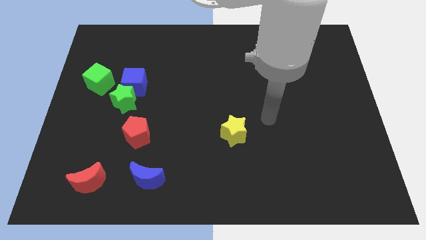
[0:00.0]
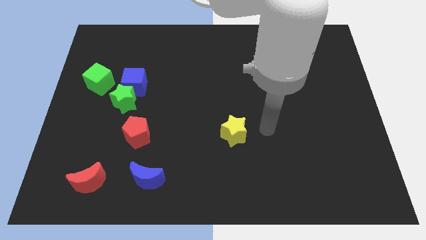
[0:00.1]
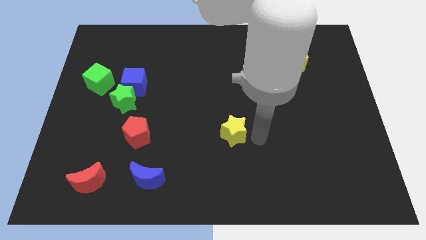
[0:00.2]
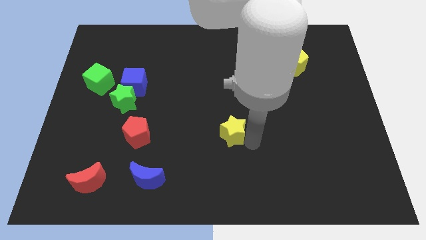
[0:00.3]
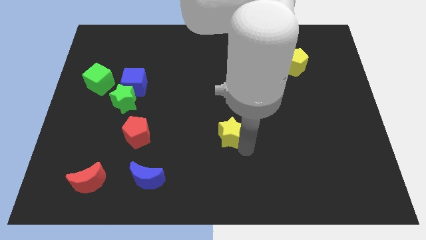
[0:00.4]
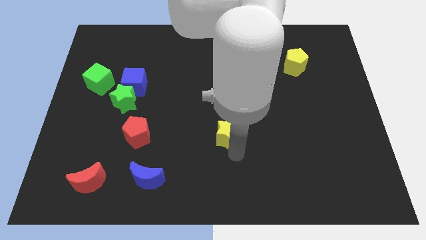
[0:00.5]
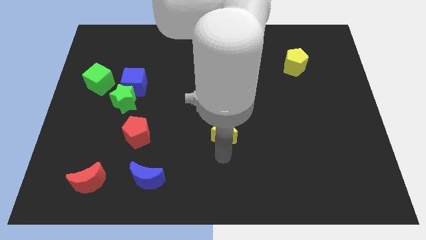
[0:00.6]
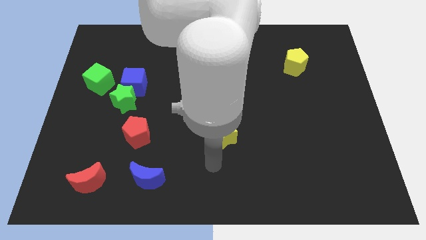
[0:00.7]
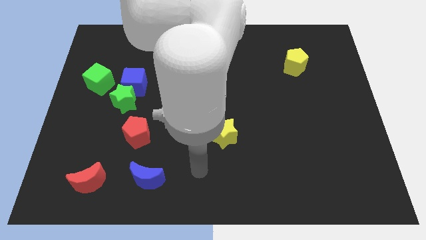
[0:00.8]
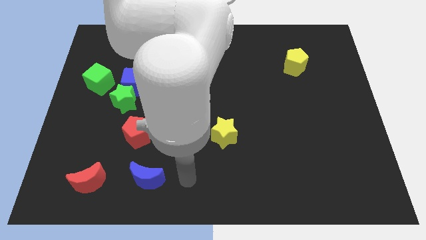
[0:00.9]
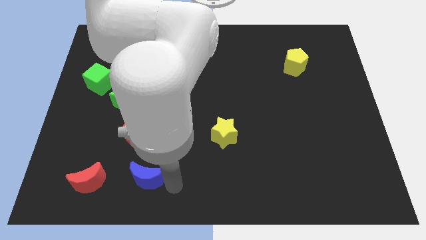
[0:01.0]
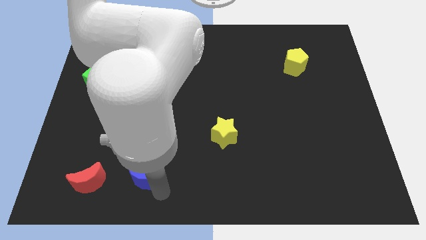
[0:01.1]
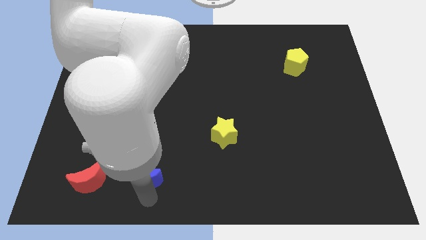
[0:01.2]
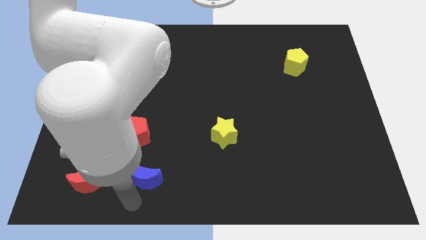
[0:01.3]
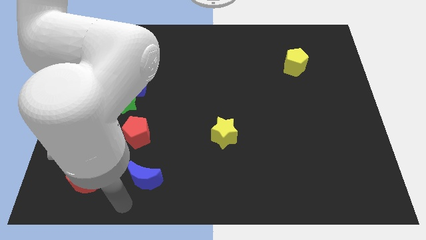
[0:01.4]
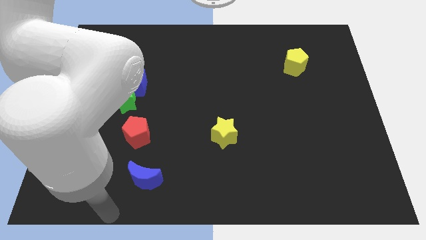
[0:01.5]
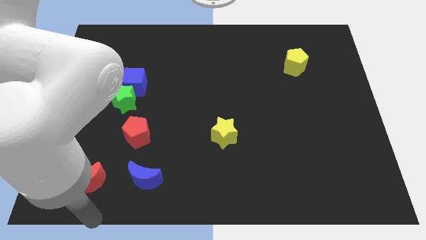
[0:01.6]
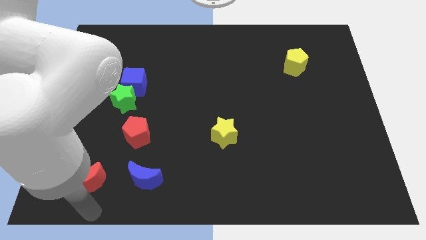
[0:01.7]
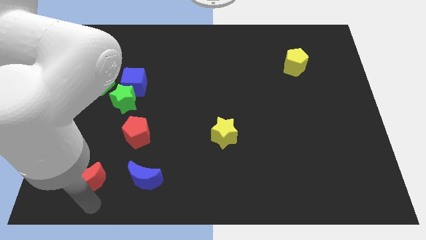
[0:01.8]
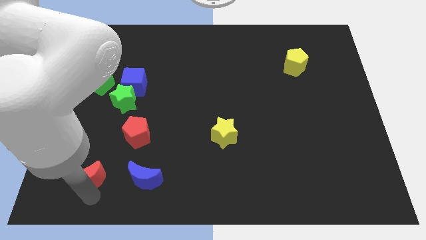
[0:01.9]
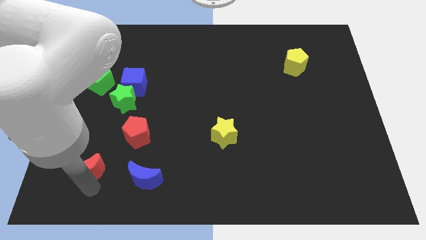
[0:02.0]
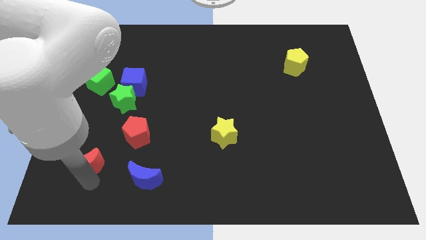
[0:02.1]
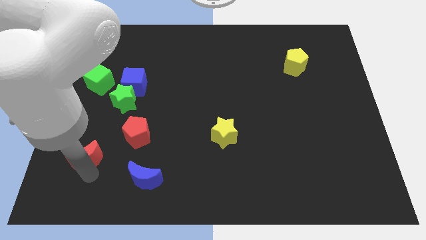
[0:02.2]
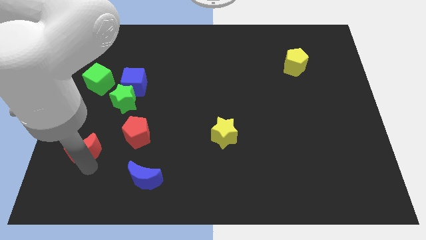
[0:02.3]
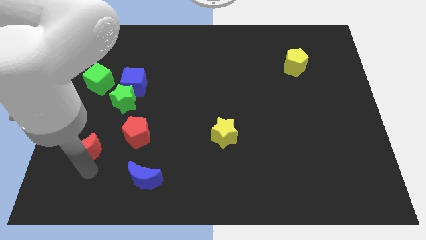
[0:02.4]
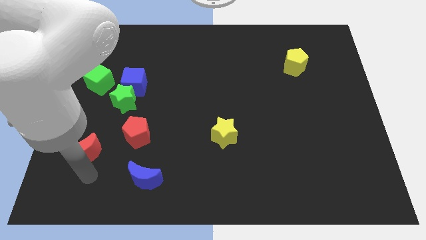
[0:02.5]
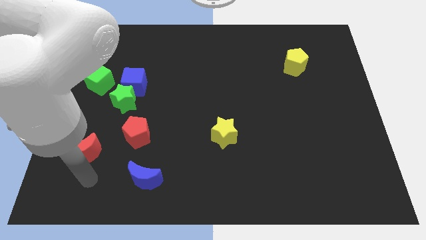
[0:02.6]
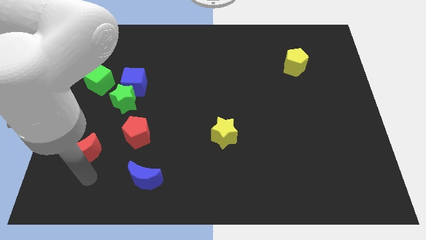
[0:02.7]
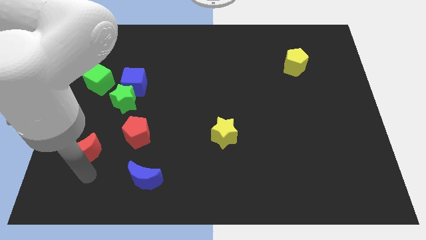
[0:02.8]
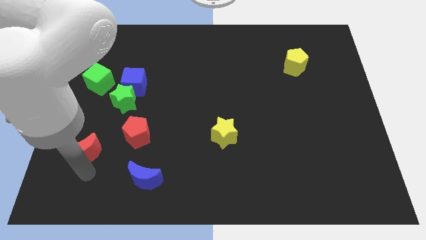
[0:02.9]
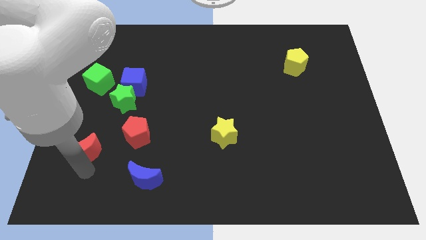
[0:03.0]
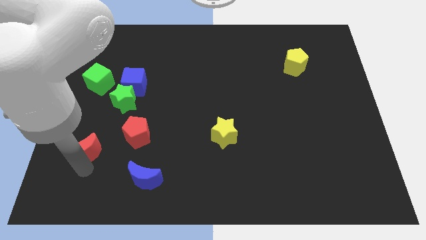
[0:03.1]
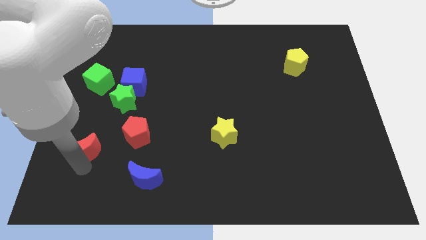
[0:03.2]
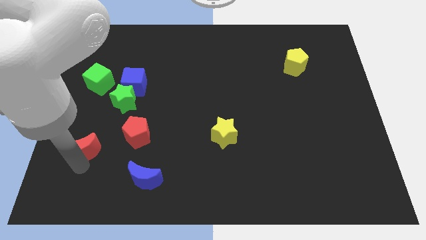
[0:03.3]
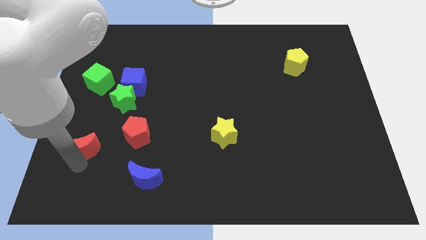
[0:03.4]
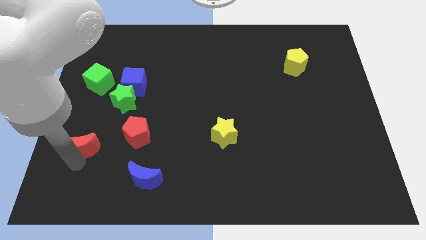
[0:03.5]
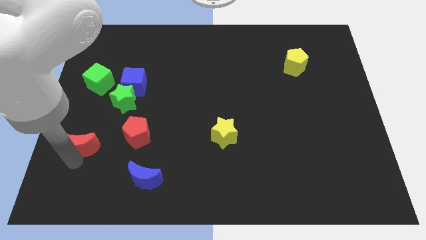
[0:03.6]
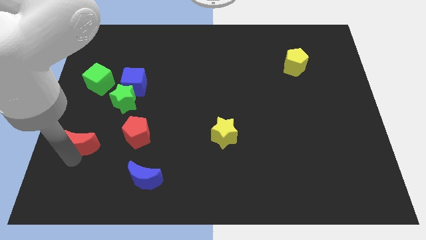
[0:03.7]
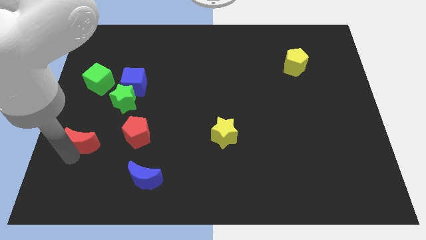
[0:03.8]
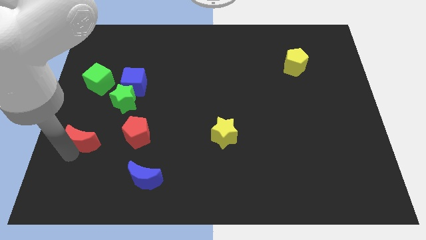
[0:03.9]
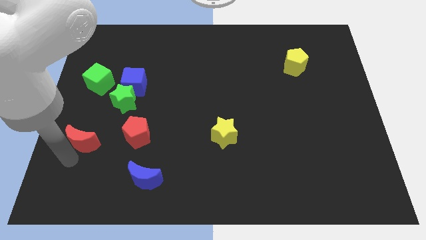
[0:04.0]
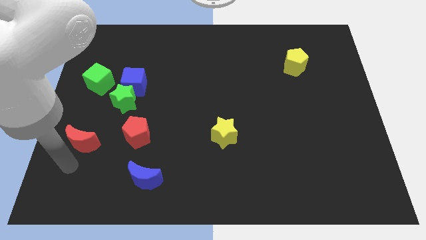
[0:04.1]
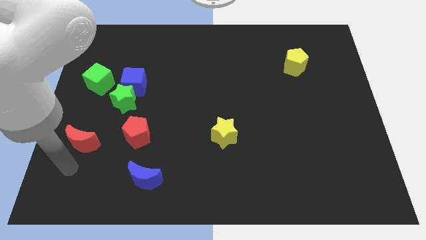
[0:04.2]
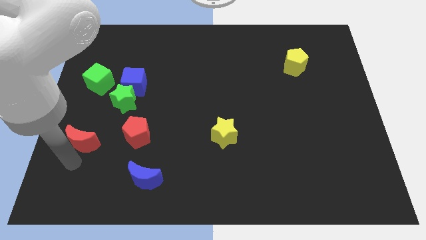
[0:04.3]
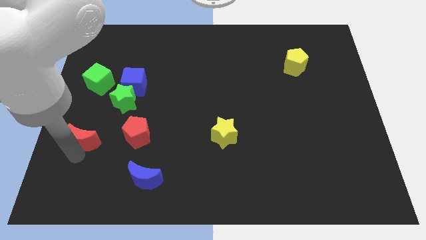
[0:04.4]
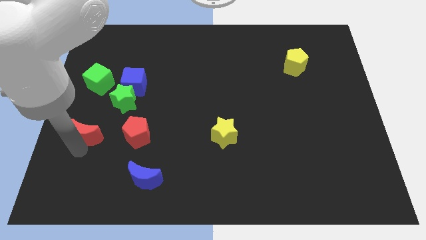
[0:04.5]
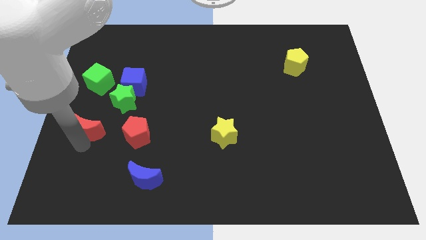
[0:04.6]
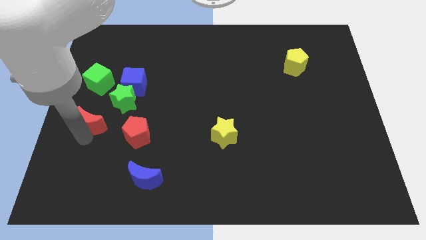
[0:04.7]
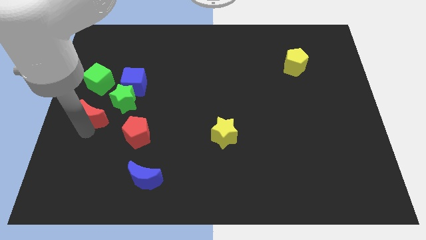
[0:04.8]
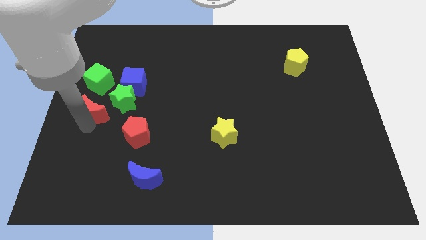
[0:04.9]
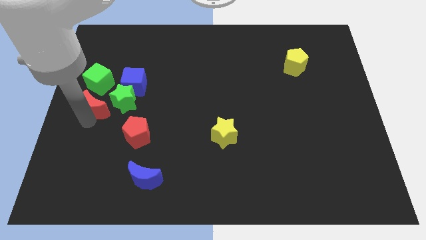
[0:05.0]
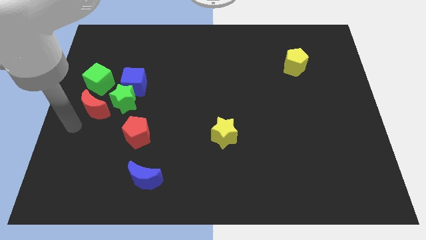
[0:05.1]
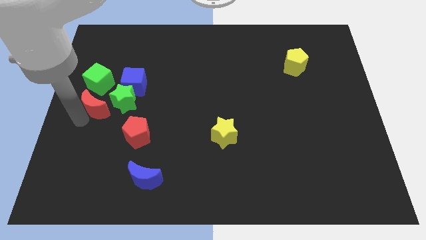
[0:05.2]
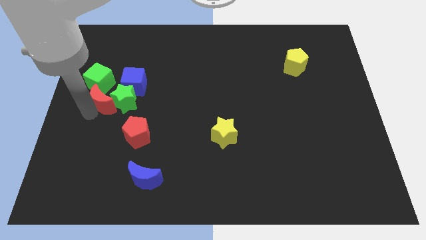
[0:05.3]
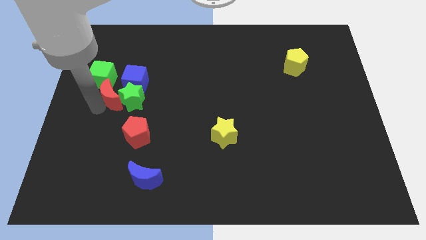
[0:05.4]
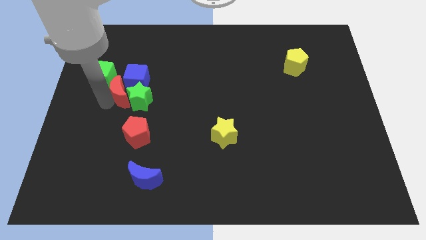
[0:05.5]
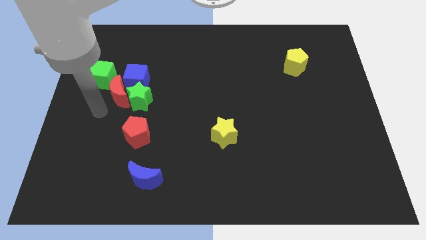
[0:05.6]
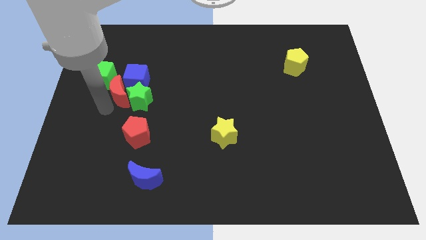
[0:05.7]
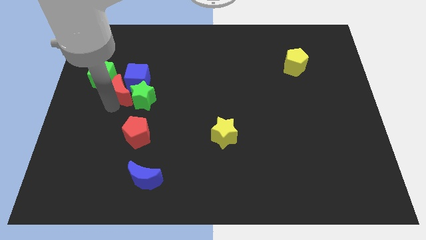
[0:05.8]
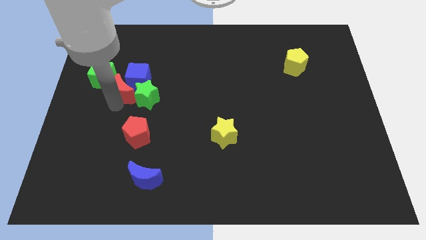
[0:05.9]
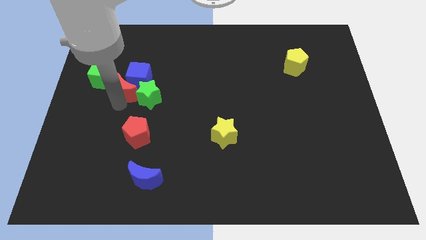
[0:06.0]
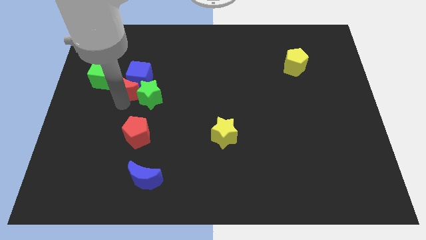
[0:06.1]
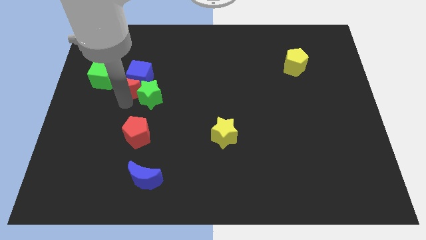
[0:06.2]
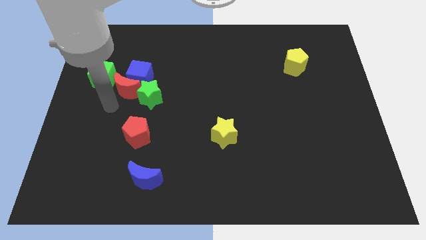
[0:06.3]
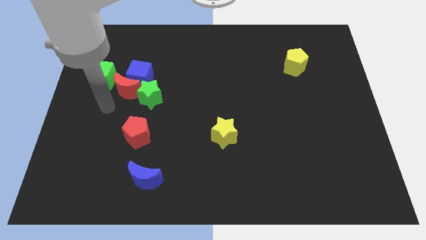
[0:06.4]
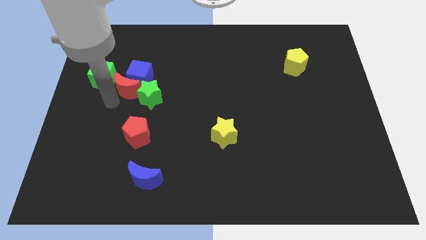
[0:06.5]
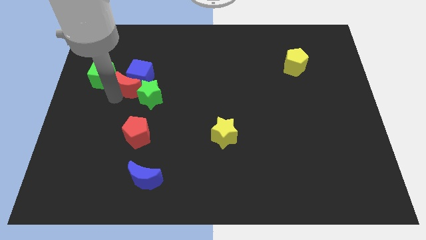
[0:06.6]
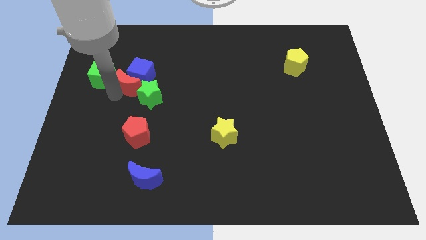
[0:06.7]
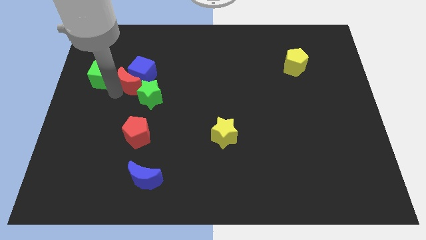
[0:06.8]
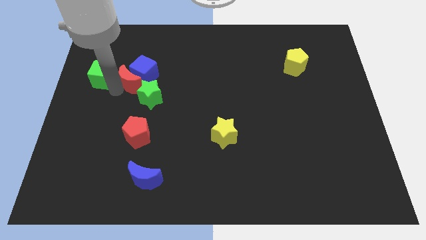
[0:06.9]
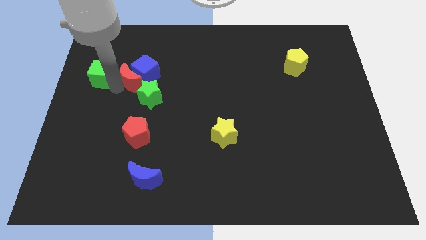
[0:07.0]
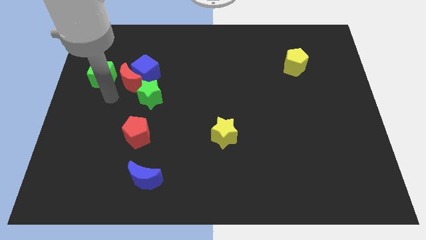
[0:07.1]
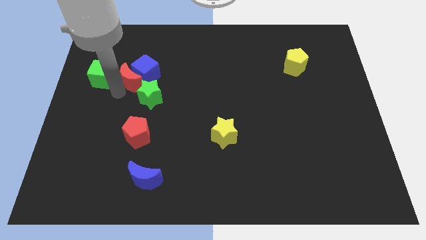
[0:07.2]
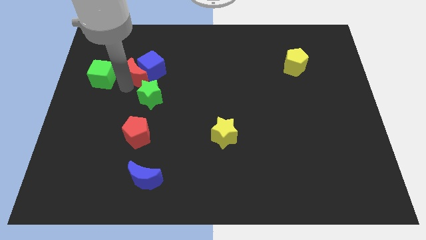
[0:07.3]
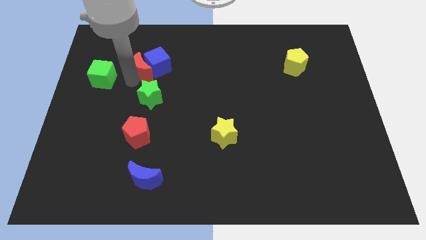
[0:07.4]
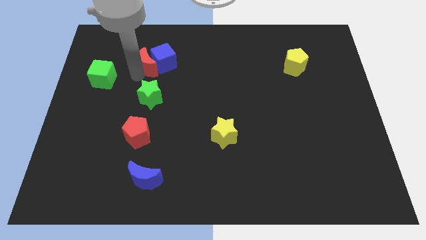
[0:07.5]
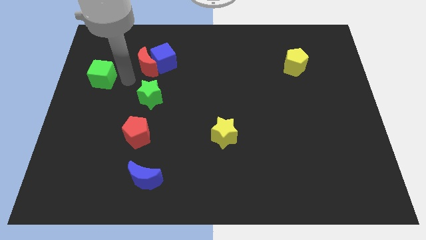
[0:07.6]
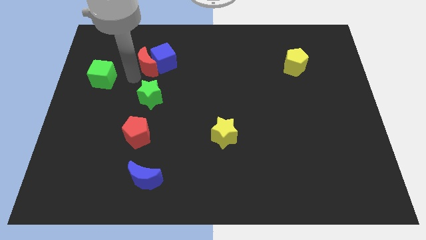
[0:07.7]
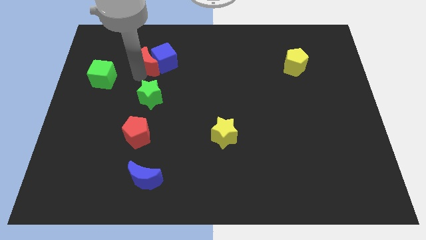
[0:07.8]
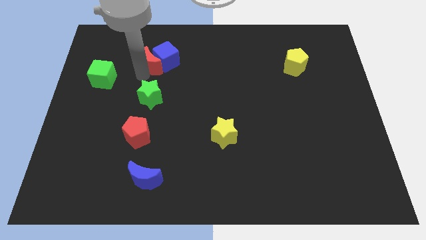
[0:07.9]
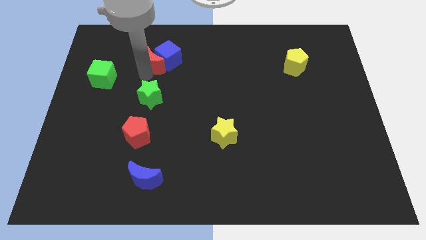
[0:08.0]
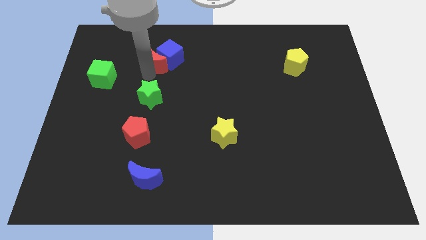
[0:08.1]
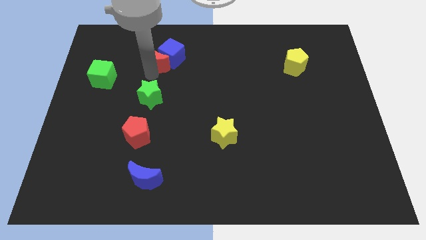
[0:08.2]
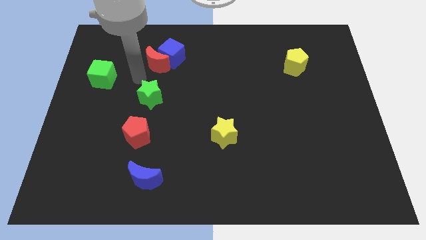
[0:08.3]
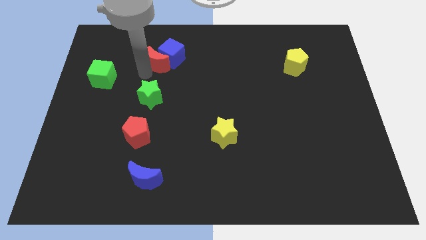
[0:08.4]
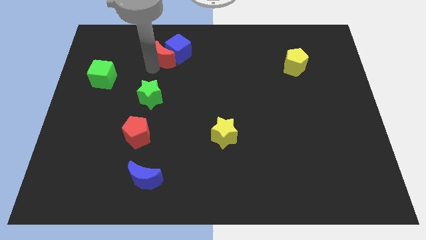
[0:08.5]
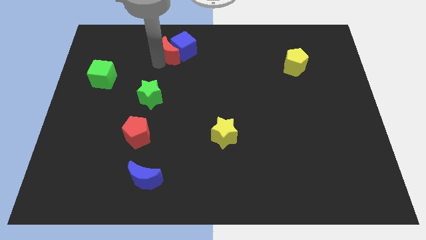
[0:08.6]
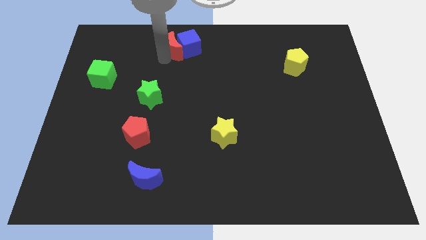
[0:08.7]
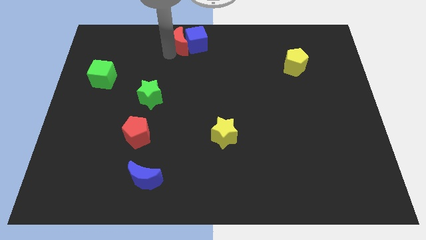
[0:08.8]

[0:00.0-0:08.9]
put the red moon to the top side
